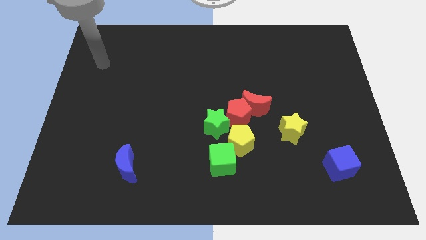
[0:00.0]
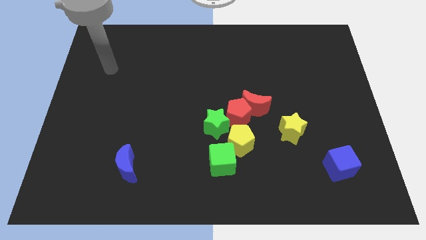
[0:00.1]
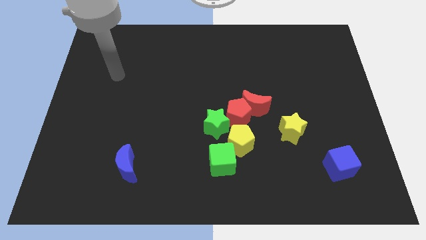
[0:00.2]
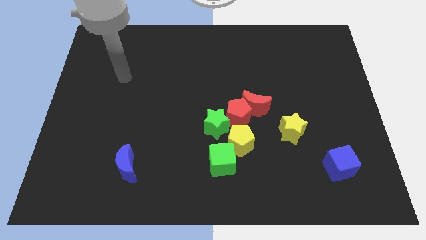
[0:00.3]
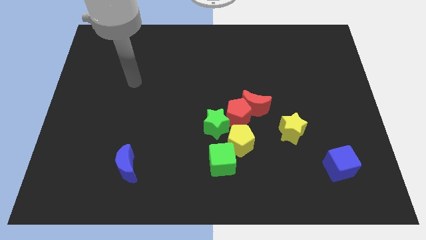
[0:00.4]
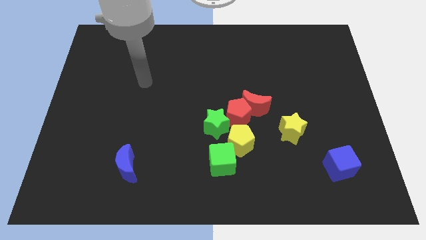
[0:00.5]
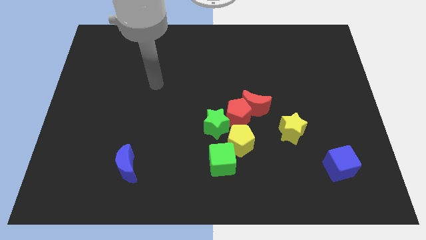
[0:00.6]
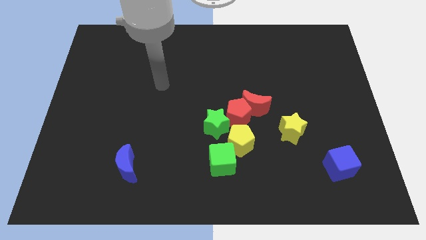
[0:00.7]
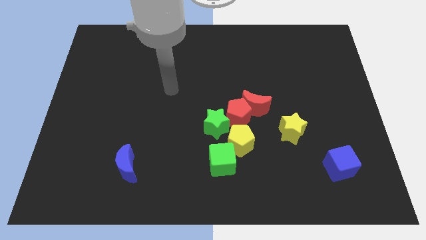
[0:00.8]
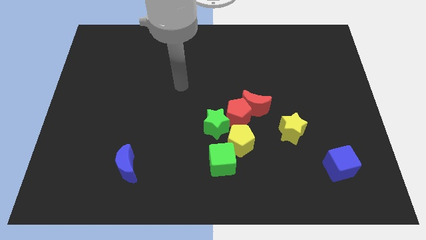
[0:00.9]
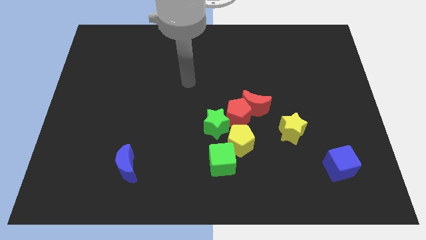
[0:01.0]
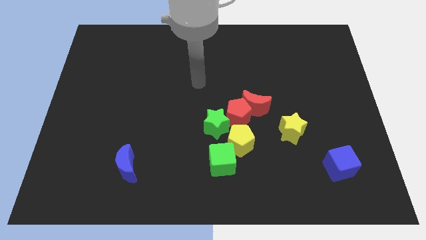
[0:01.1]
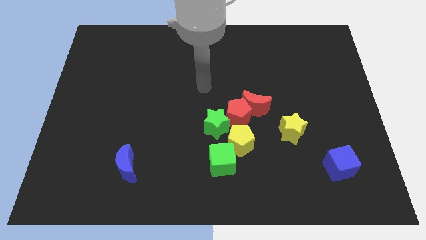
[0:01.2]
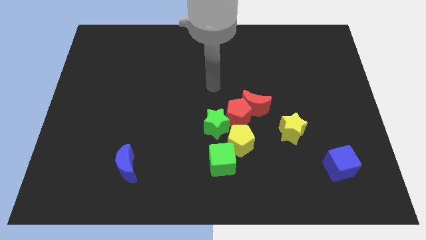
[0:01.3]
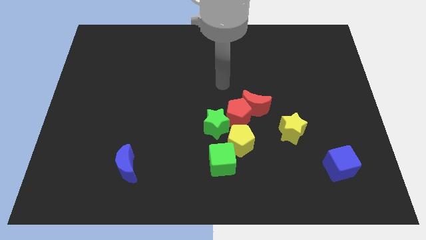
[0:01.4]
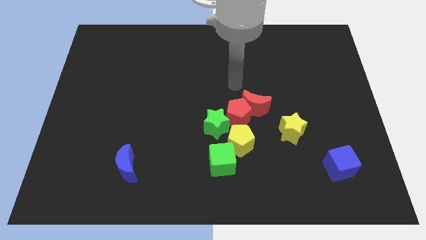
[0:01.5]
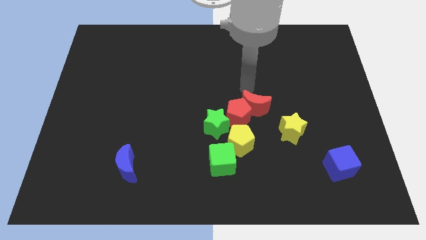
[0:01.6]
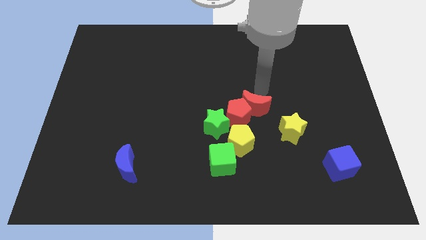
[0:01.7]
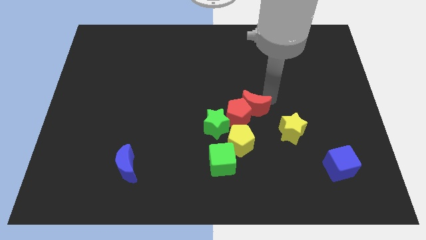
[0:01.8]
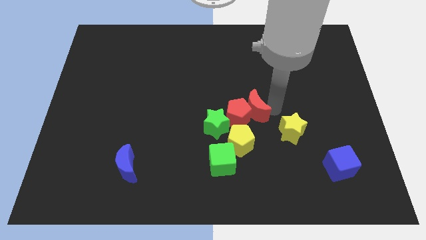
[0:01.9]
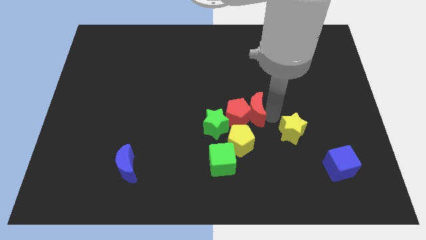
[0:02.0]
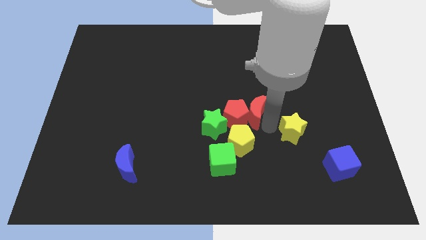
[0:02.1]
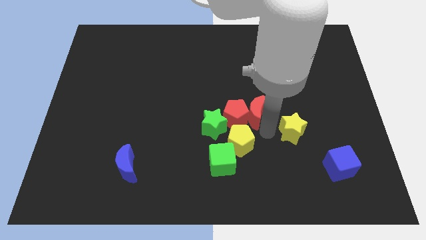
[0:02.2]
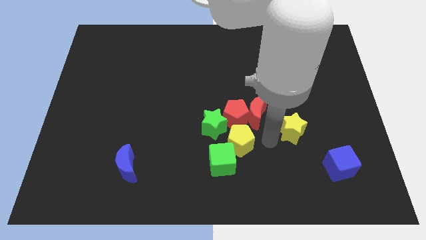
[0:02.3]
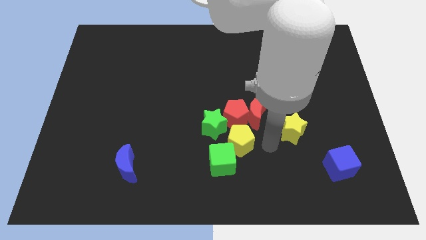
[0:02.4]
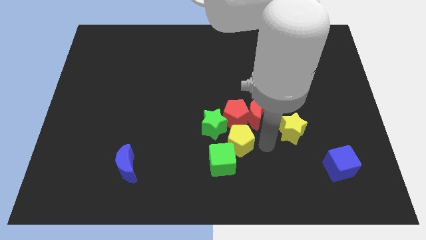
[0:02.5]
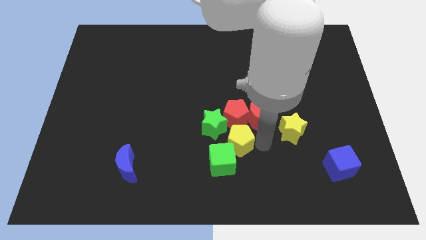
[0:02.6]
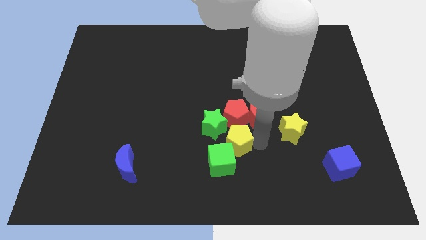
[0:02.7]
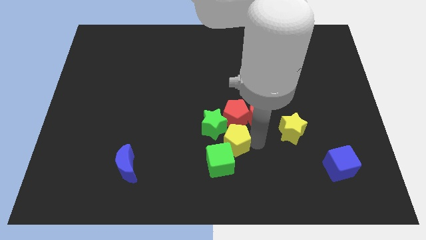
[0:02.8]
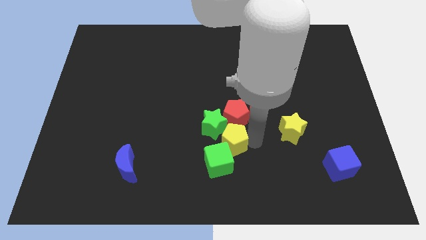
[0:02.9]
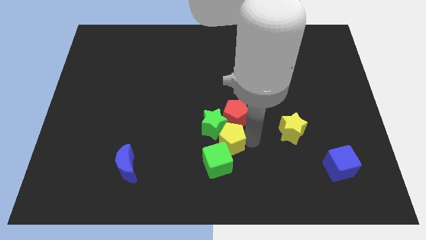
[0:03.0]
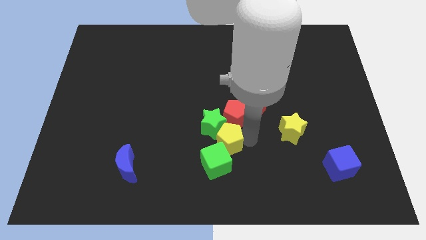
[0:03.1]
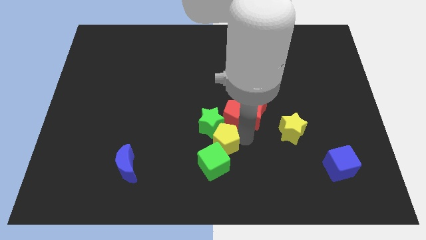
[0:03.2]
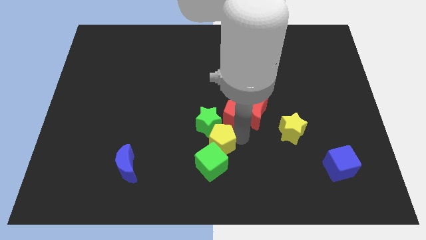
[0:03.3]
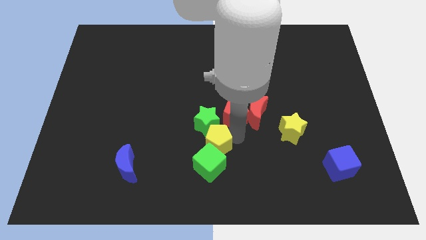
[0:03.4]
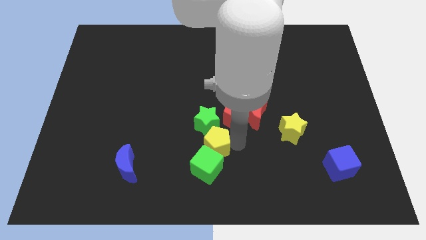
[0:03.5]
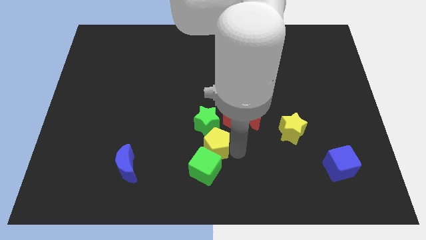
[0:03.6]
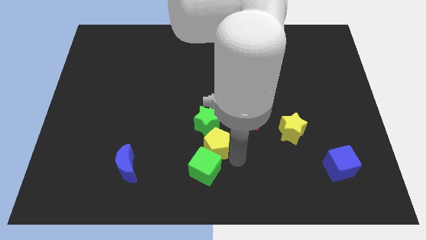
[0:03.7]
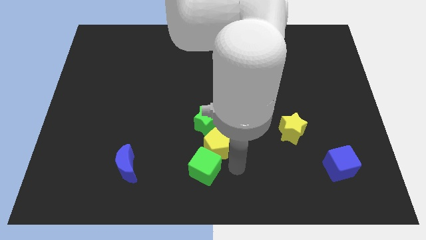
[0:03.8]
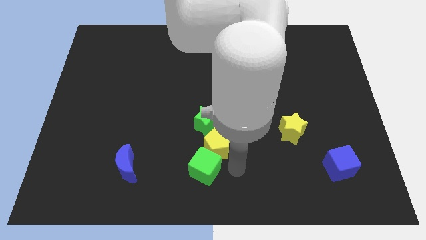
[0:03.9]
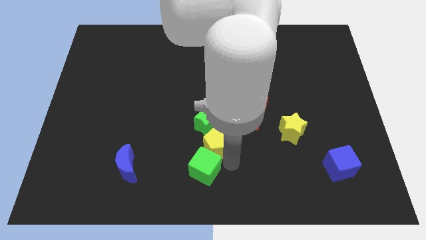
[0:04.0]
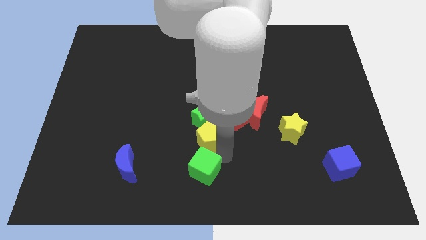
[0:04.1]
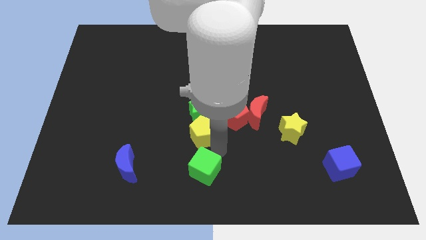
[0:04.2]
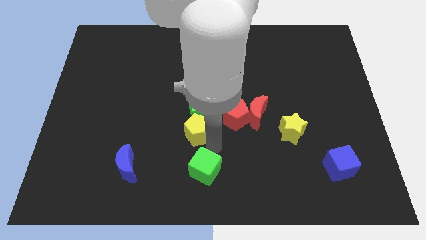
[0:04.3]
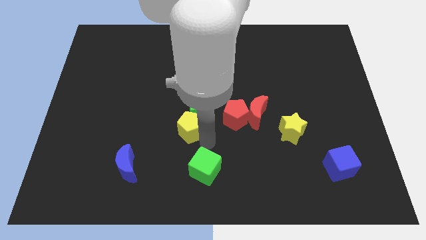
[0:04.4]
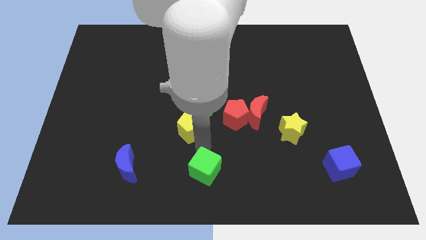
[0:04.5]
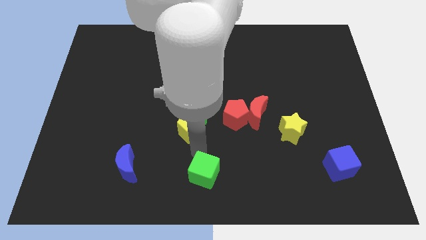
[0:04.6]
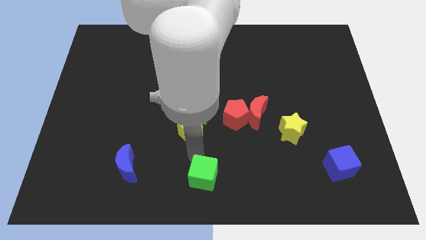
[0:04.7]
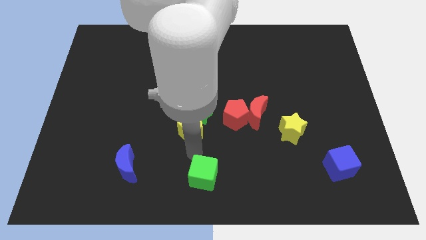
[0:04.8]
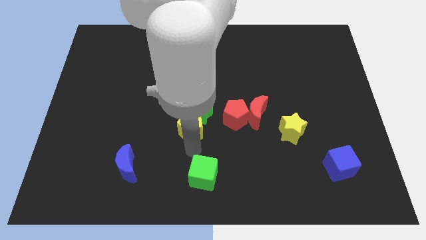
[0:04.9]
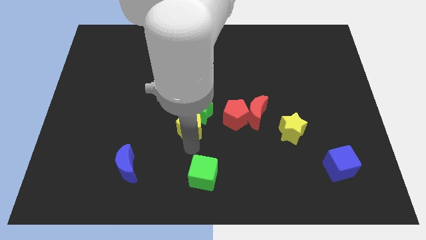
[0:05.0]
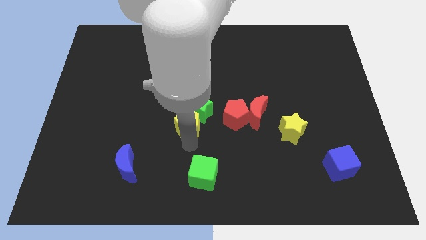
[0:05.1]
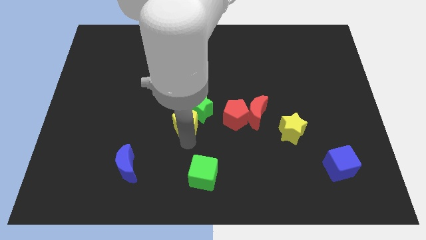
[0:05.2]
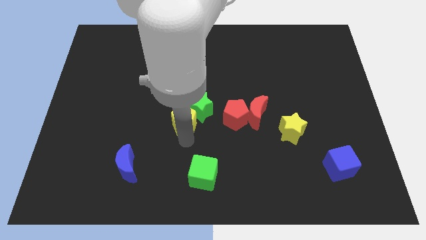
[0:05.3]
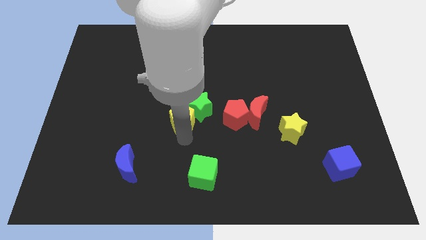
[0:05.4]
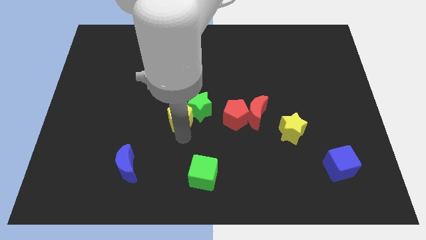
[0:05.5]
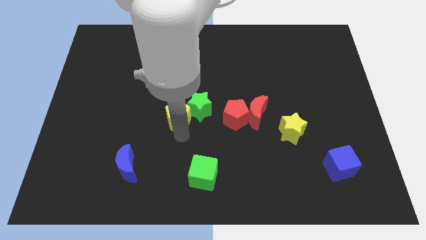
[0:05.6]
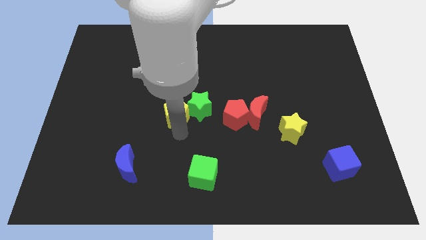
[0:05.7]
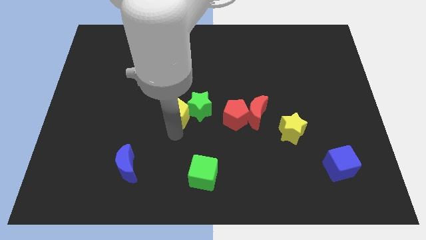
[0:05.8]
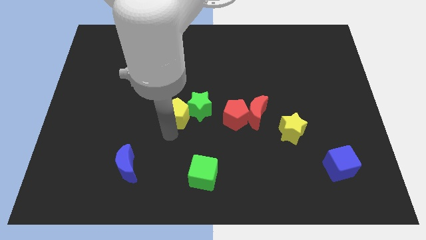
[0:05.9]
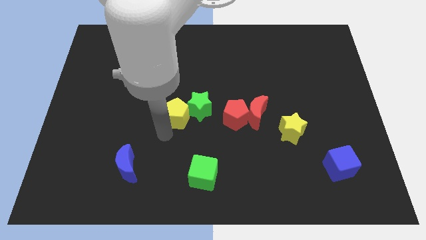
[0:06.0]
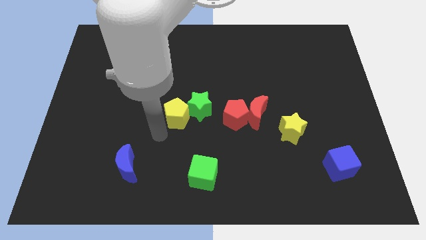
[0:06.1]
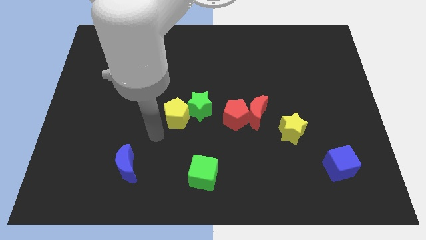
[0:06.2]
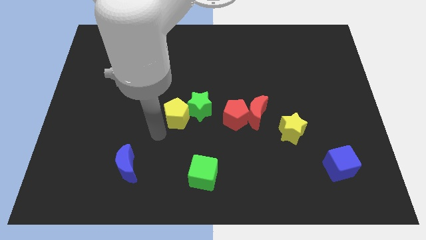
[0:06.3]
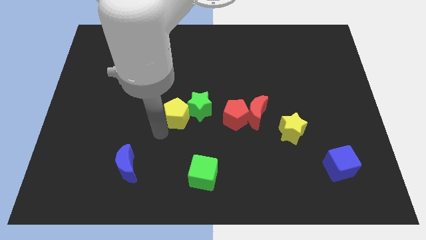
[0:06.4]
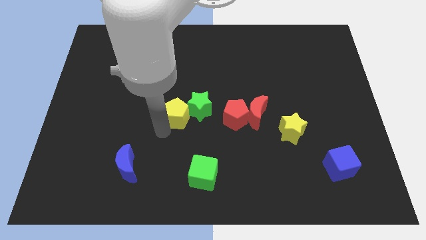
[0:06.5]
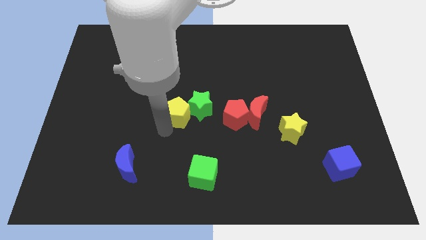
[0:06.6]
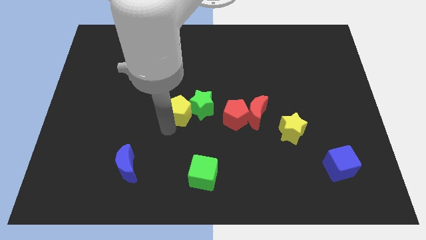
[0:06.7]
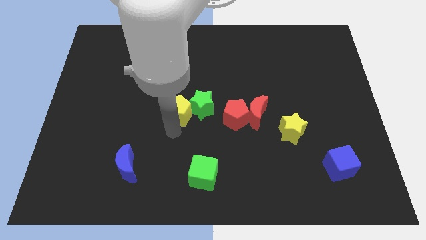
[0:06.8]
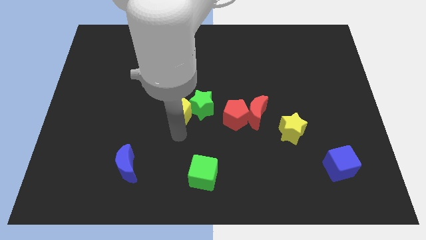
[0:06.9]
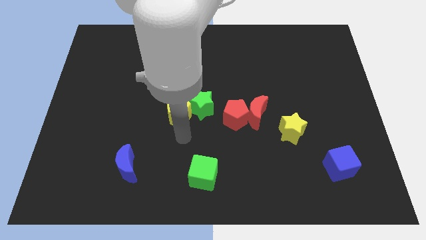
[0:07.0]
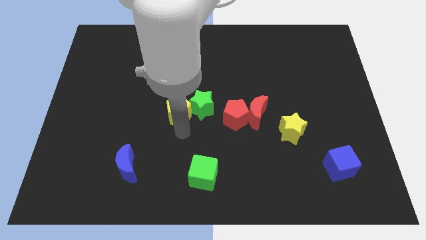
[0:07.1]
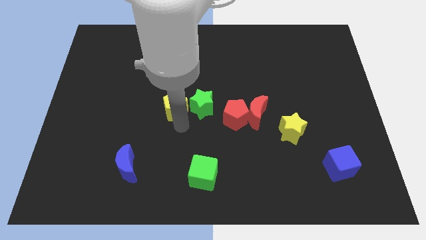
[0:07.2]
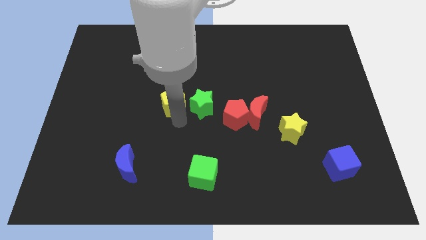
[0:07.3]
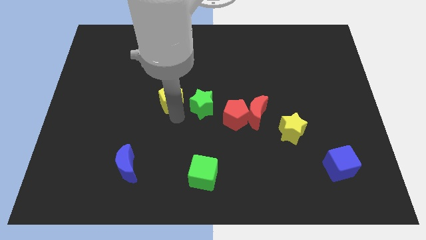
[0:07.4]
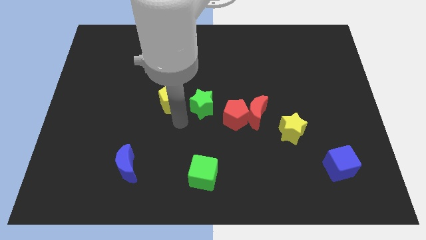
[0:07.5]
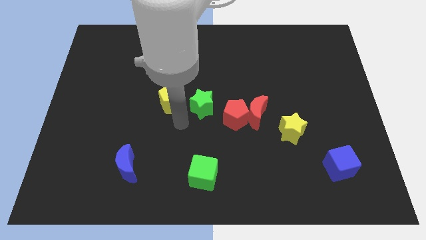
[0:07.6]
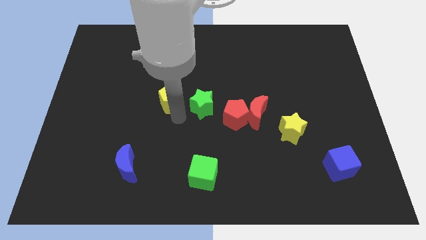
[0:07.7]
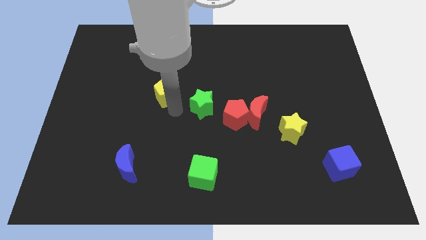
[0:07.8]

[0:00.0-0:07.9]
push the yellow pentagon diagonally up and left

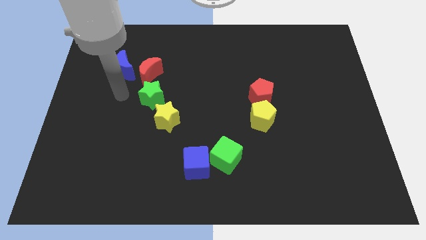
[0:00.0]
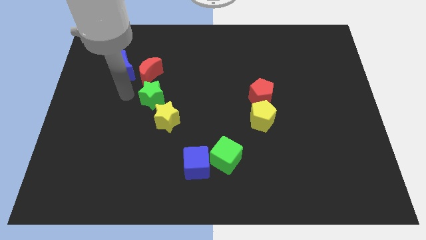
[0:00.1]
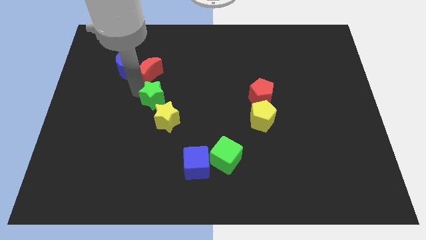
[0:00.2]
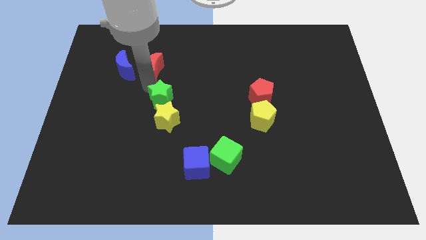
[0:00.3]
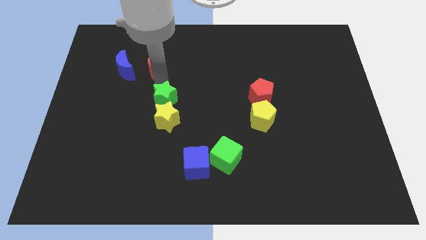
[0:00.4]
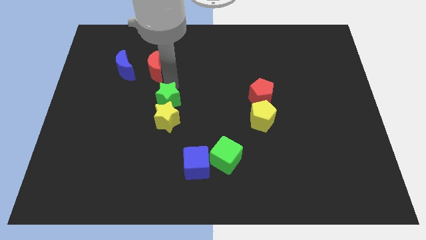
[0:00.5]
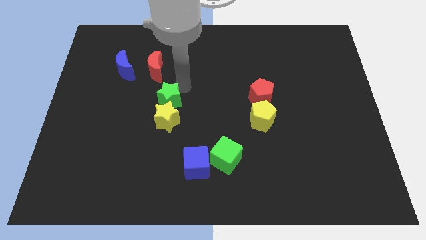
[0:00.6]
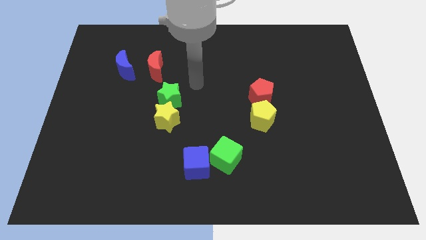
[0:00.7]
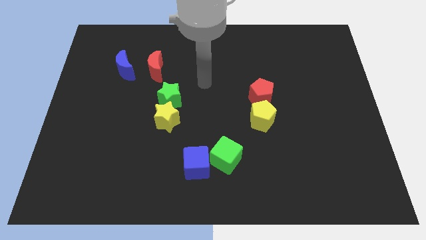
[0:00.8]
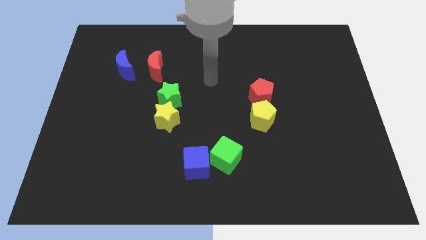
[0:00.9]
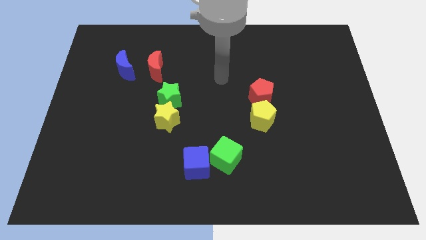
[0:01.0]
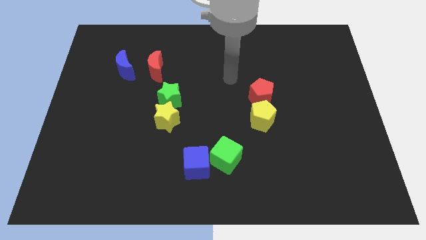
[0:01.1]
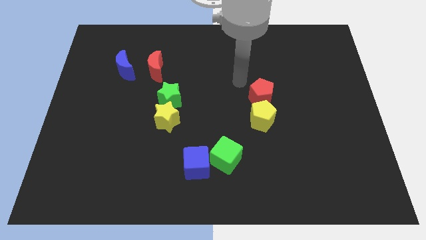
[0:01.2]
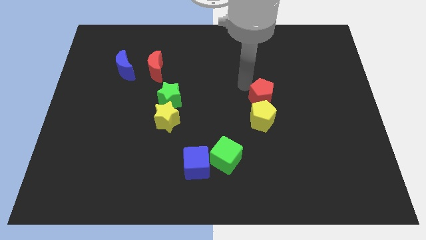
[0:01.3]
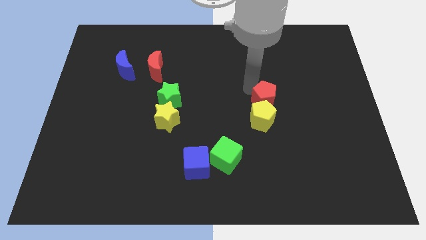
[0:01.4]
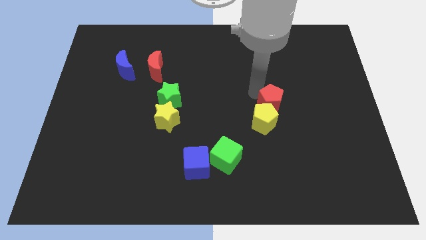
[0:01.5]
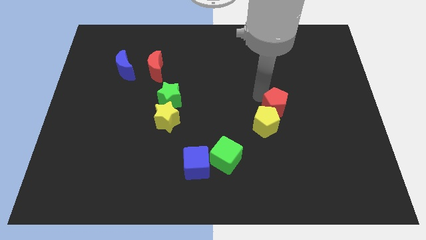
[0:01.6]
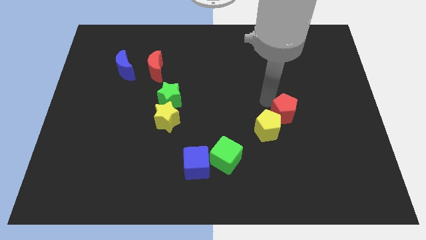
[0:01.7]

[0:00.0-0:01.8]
move the red pentagon downwards and to the right diagonally a little bit
